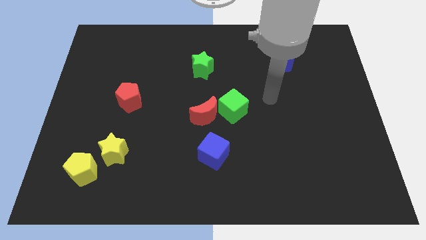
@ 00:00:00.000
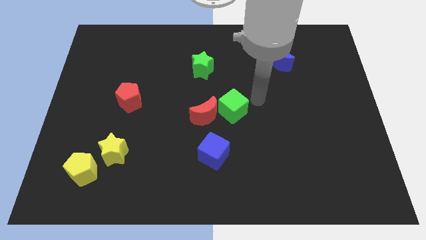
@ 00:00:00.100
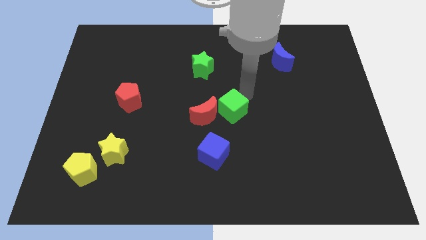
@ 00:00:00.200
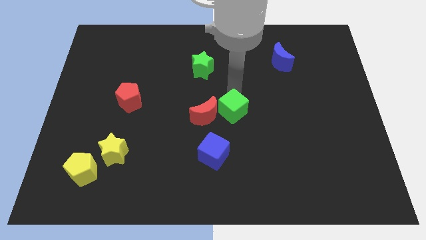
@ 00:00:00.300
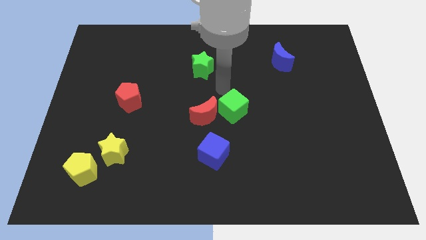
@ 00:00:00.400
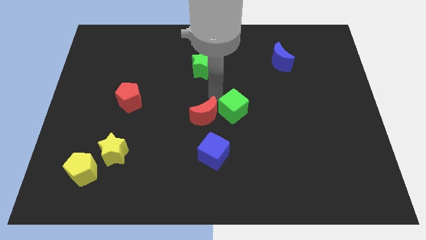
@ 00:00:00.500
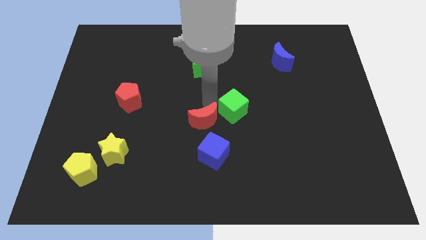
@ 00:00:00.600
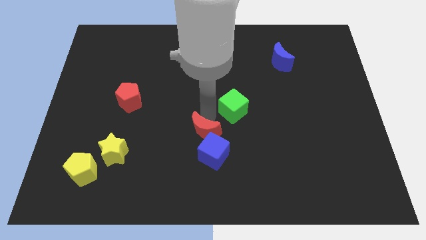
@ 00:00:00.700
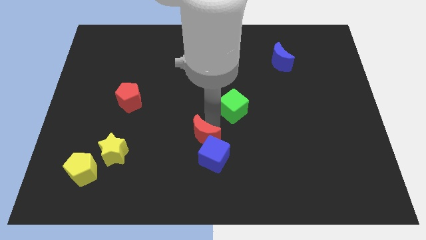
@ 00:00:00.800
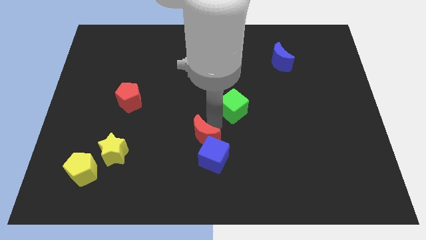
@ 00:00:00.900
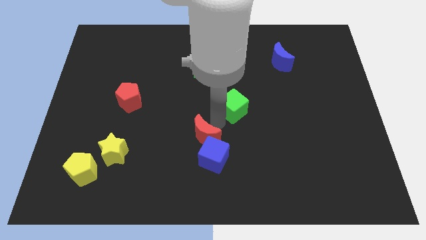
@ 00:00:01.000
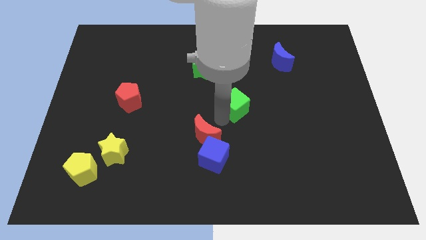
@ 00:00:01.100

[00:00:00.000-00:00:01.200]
pull the green cube apart from the red moon

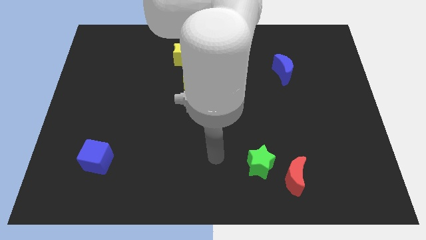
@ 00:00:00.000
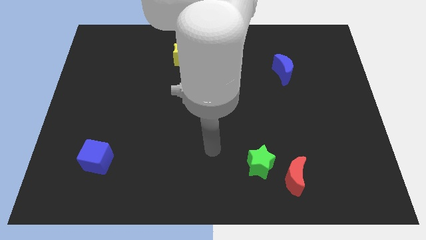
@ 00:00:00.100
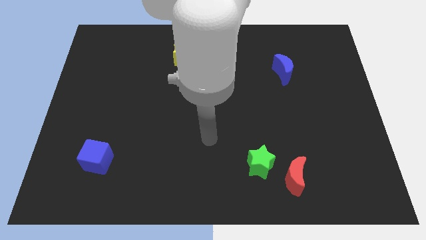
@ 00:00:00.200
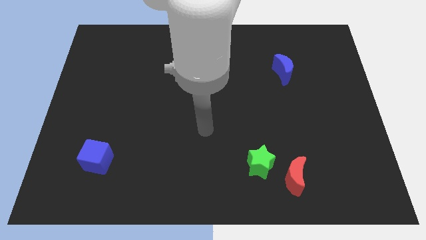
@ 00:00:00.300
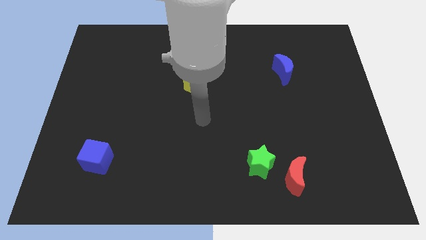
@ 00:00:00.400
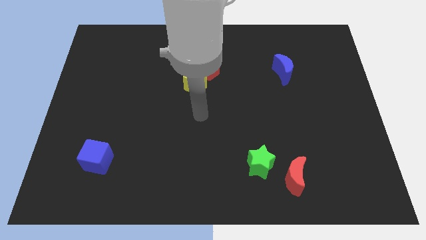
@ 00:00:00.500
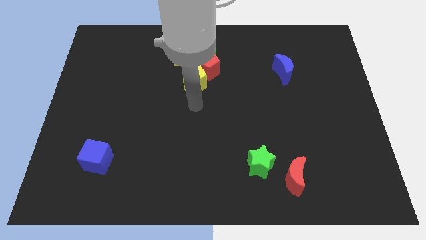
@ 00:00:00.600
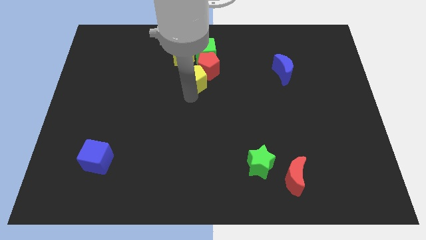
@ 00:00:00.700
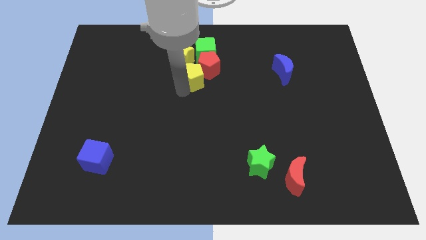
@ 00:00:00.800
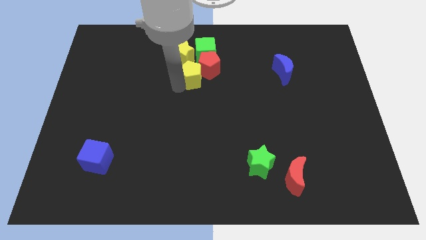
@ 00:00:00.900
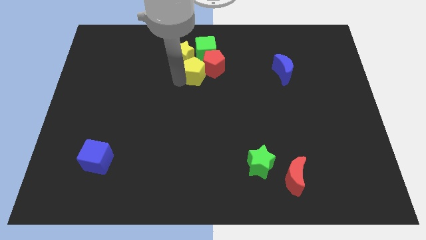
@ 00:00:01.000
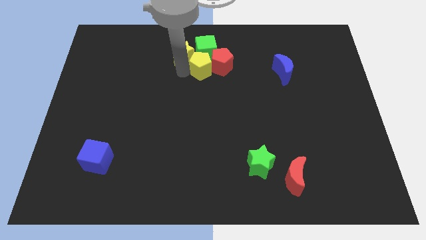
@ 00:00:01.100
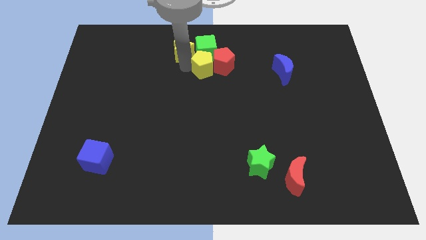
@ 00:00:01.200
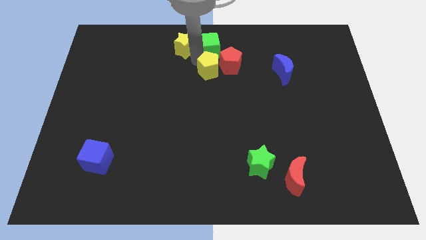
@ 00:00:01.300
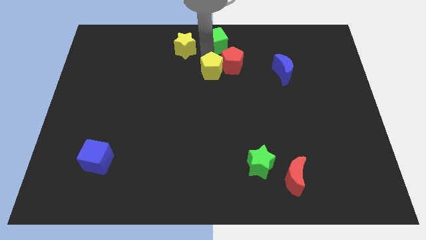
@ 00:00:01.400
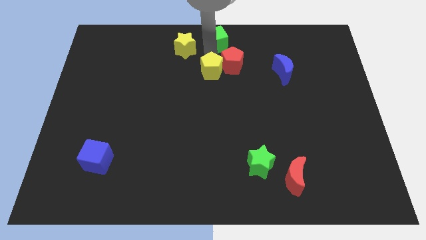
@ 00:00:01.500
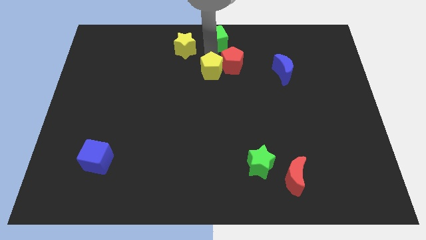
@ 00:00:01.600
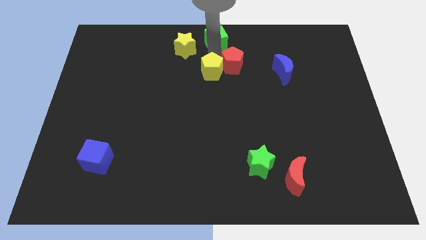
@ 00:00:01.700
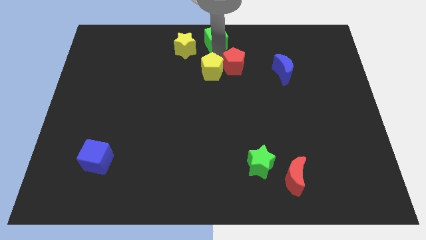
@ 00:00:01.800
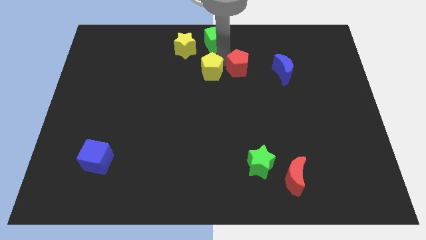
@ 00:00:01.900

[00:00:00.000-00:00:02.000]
pull the red pentagon apart from the green cube, yellow pentagon, and yellow star

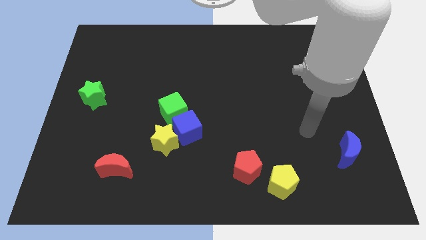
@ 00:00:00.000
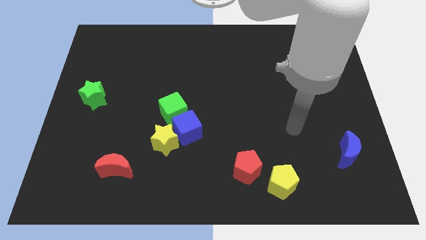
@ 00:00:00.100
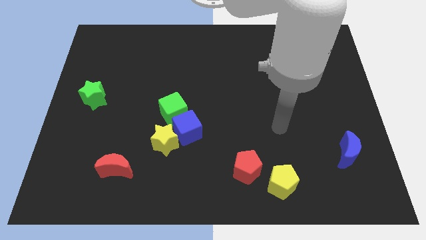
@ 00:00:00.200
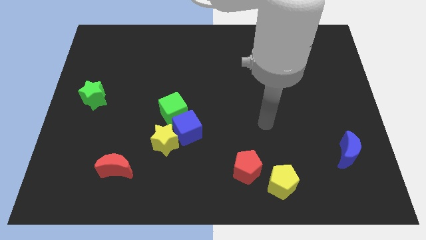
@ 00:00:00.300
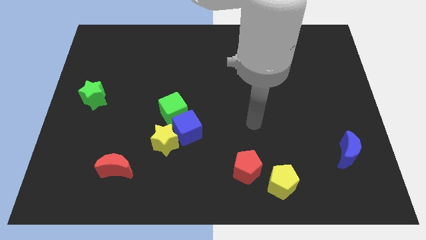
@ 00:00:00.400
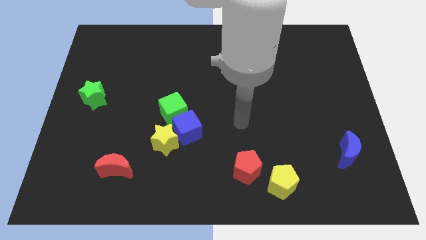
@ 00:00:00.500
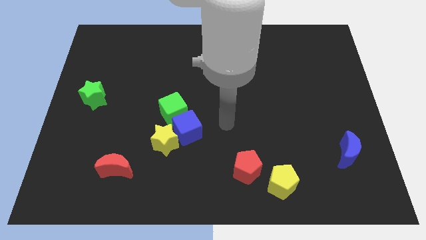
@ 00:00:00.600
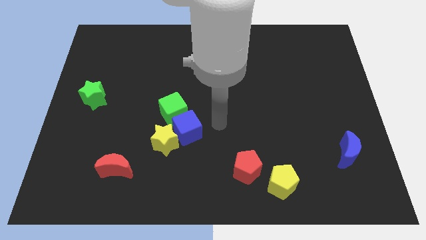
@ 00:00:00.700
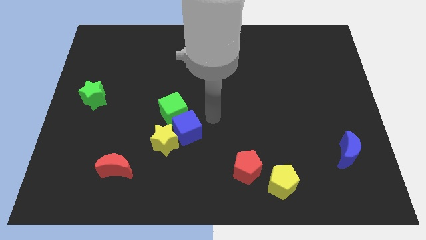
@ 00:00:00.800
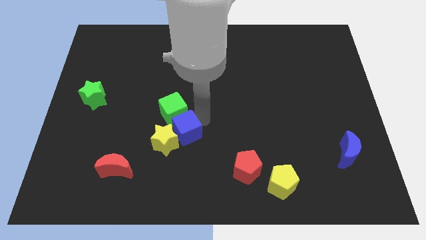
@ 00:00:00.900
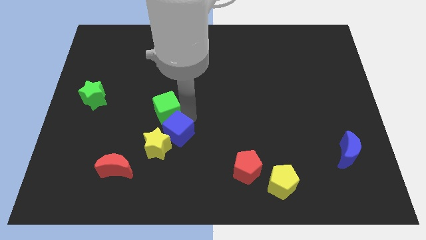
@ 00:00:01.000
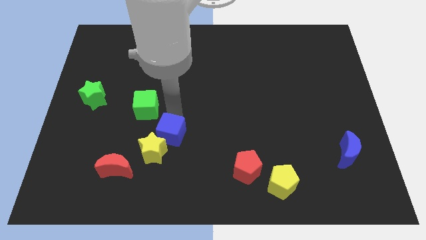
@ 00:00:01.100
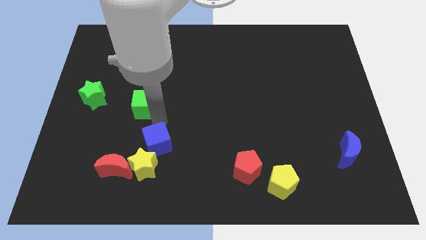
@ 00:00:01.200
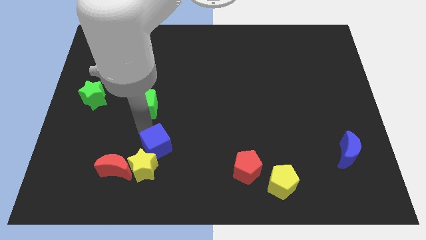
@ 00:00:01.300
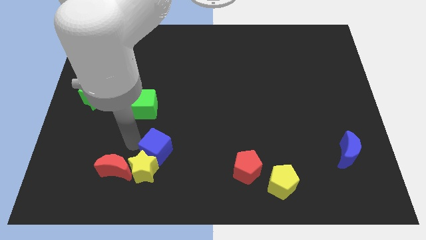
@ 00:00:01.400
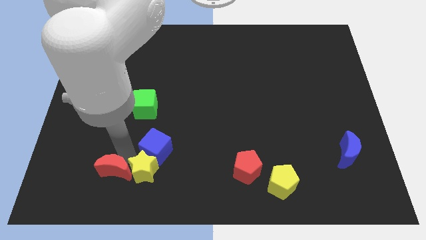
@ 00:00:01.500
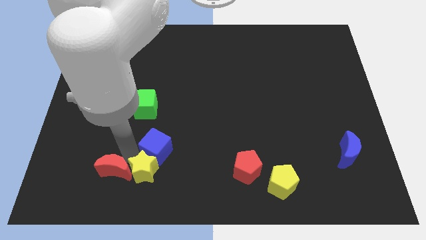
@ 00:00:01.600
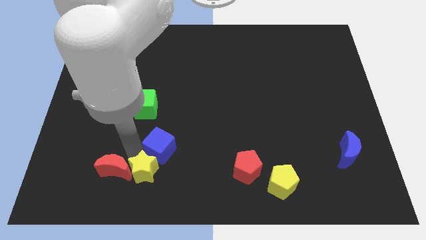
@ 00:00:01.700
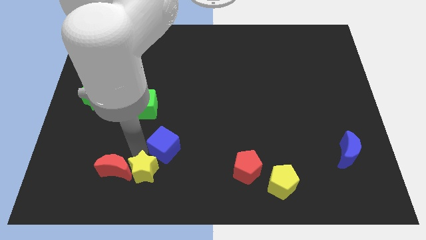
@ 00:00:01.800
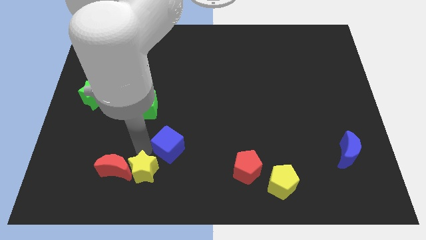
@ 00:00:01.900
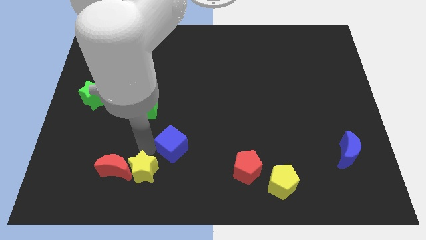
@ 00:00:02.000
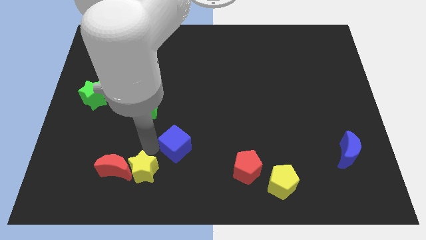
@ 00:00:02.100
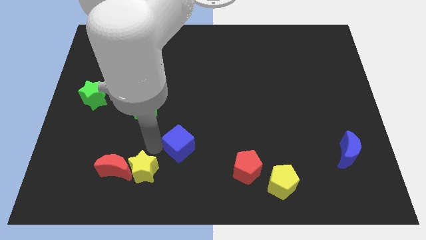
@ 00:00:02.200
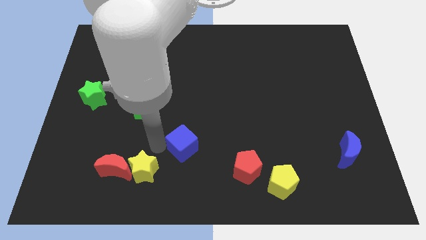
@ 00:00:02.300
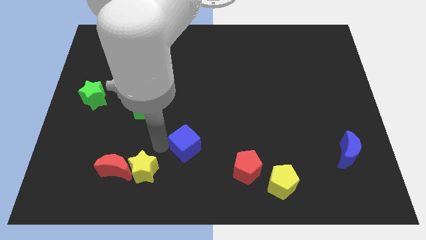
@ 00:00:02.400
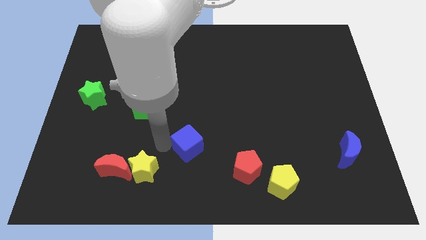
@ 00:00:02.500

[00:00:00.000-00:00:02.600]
pull the blue cube apart from the yellow star and green cube

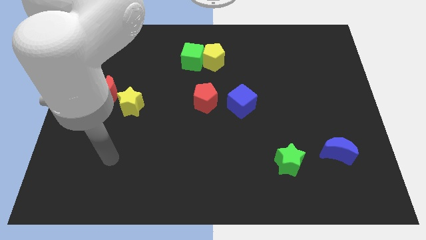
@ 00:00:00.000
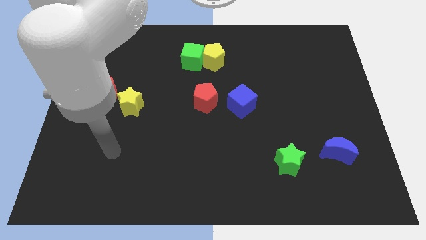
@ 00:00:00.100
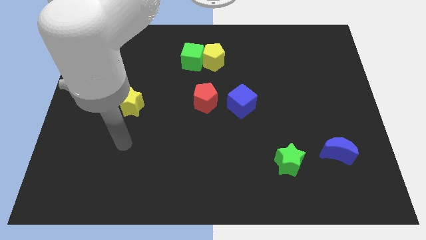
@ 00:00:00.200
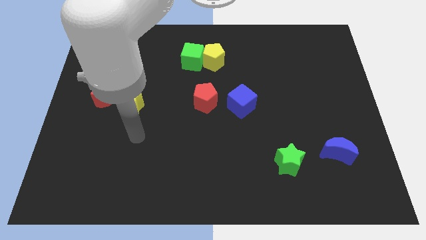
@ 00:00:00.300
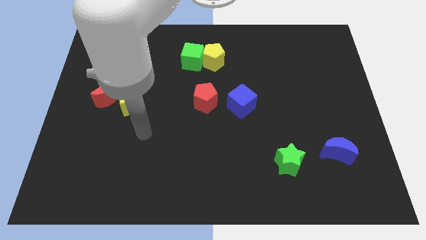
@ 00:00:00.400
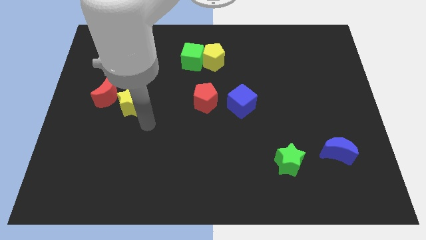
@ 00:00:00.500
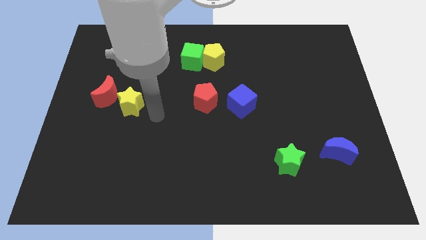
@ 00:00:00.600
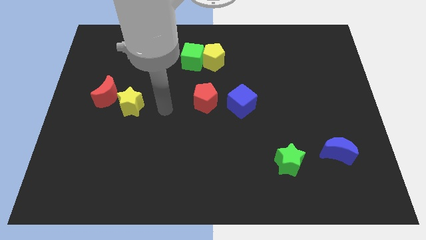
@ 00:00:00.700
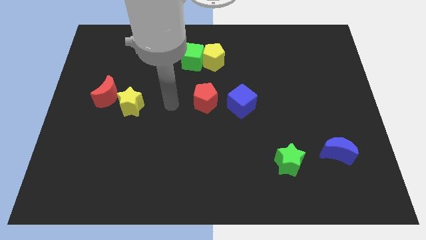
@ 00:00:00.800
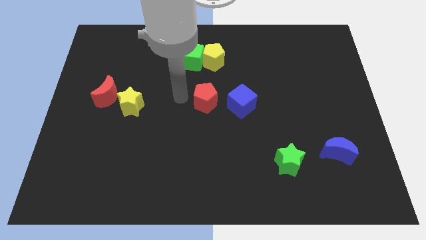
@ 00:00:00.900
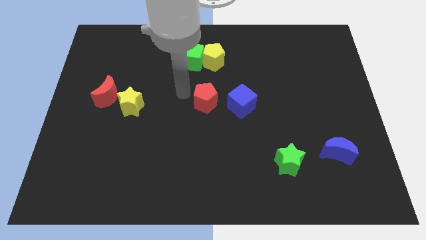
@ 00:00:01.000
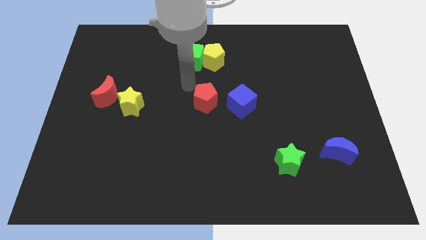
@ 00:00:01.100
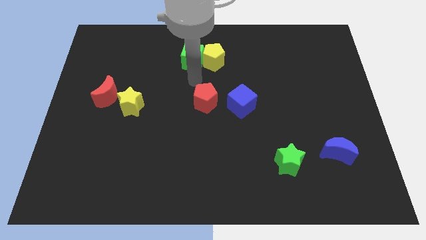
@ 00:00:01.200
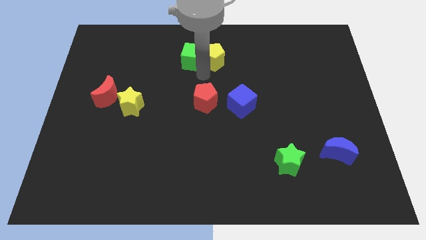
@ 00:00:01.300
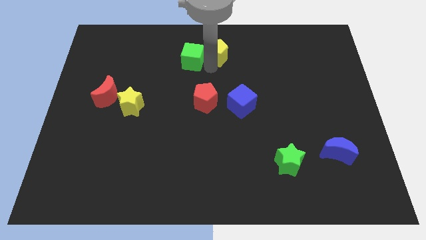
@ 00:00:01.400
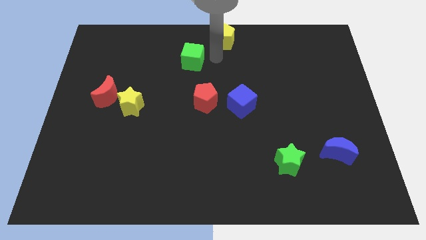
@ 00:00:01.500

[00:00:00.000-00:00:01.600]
pull the green cube apart from the yellow pentagon

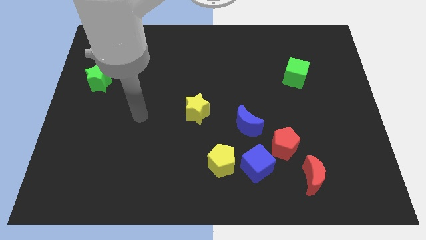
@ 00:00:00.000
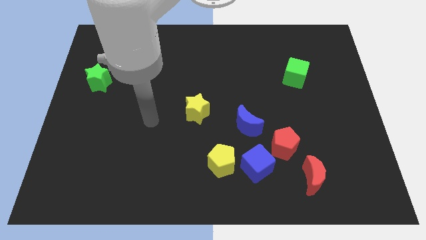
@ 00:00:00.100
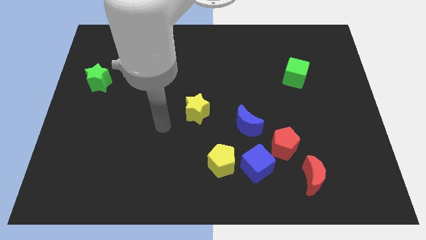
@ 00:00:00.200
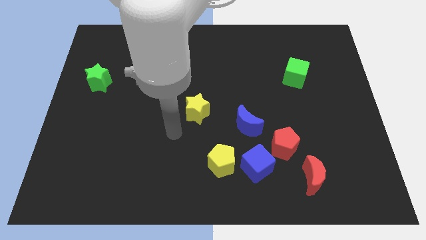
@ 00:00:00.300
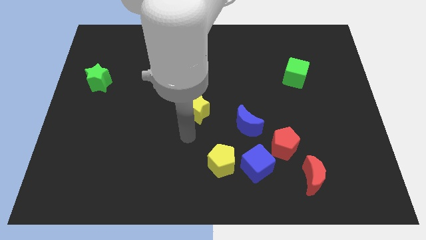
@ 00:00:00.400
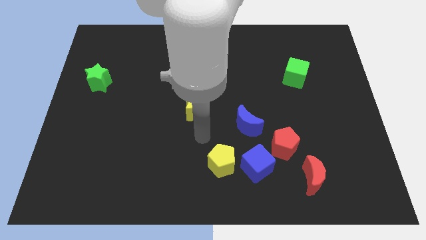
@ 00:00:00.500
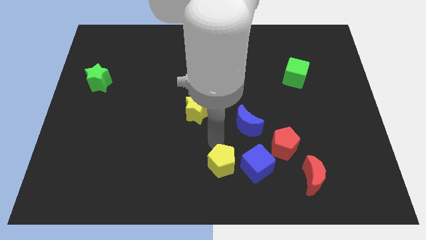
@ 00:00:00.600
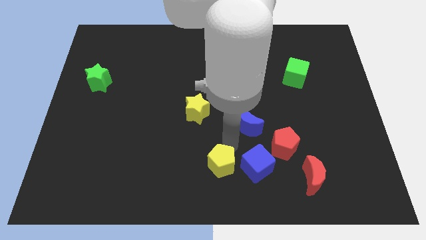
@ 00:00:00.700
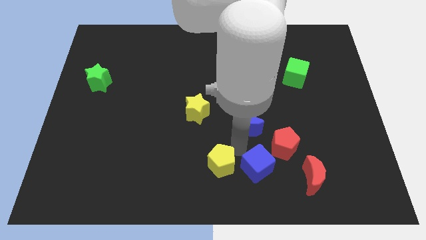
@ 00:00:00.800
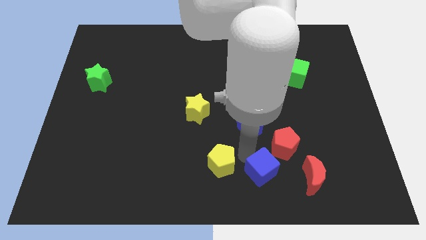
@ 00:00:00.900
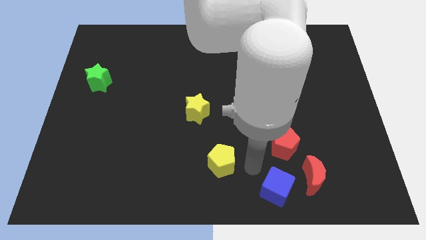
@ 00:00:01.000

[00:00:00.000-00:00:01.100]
move the yellow pentagon away from the blue cube

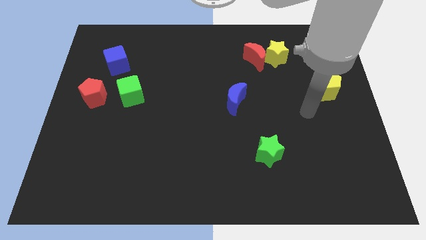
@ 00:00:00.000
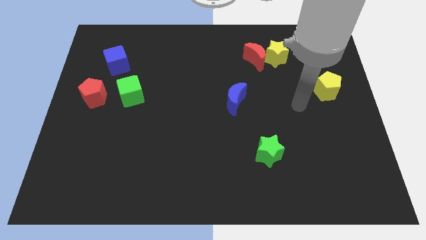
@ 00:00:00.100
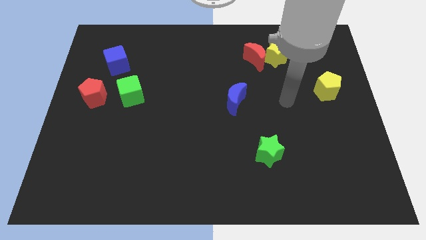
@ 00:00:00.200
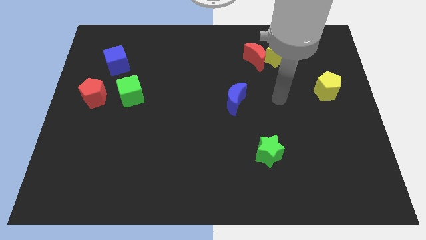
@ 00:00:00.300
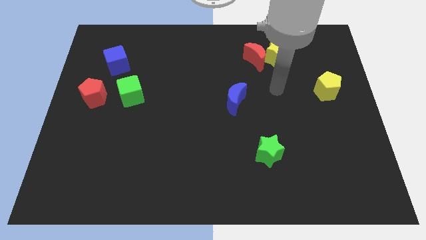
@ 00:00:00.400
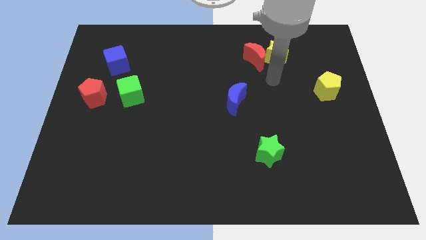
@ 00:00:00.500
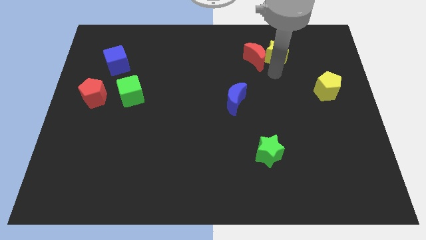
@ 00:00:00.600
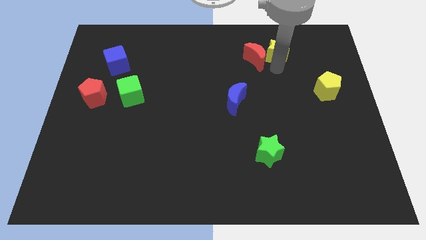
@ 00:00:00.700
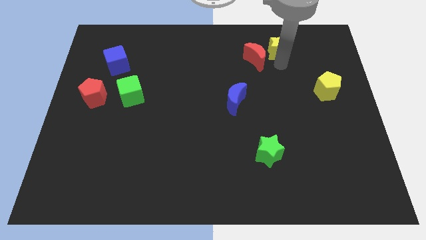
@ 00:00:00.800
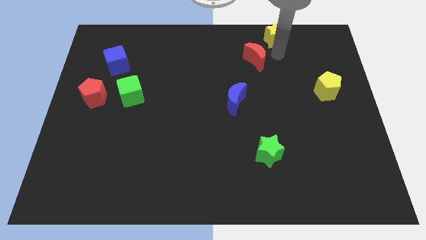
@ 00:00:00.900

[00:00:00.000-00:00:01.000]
separate the red moon from the yellow star
